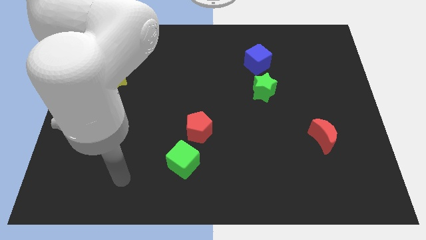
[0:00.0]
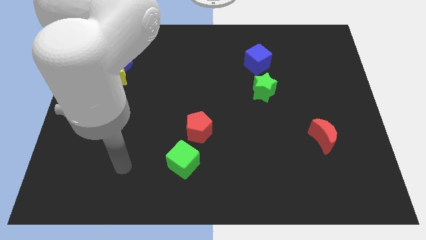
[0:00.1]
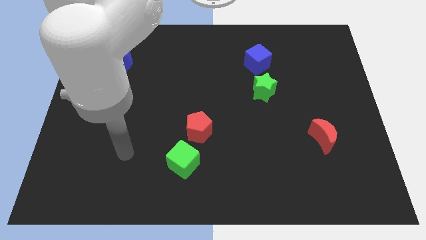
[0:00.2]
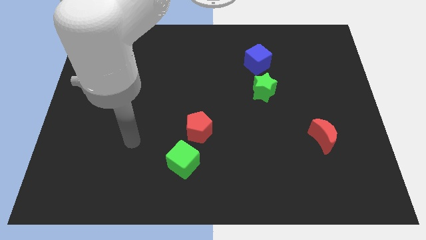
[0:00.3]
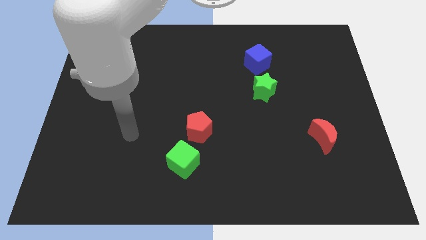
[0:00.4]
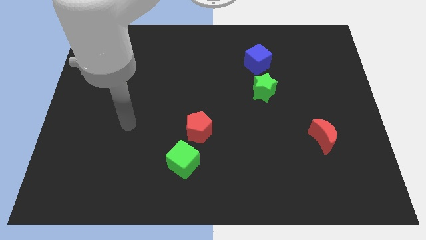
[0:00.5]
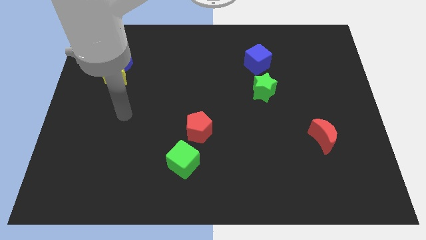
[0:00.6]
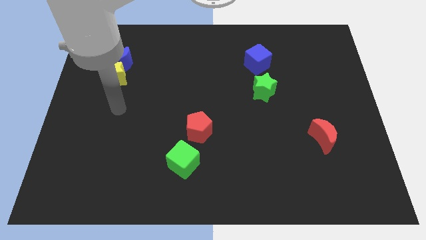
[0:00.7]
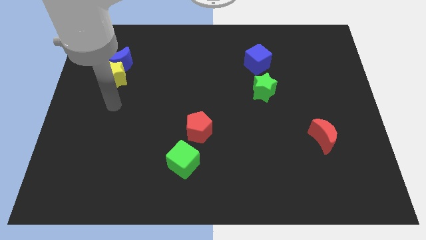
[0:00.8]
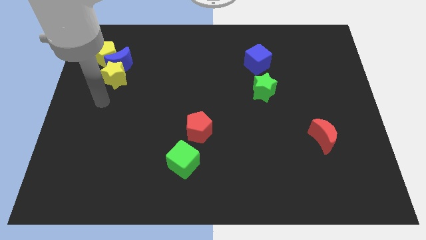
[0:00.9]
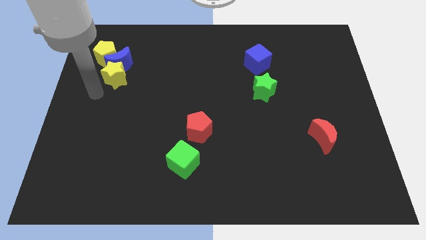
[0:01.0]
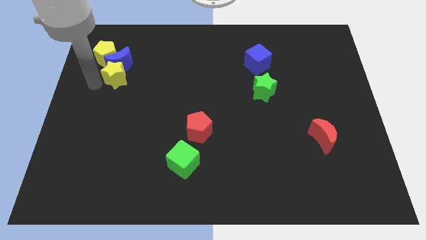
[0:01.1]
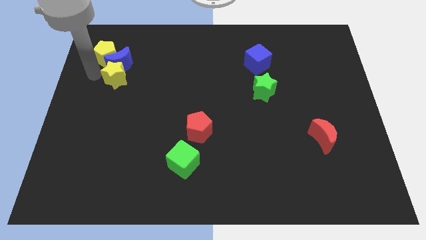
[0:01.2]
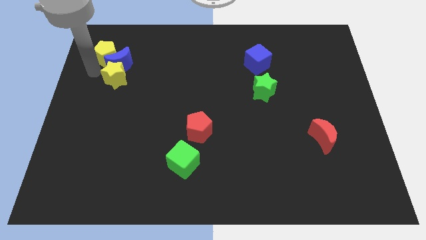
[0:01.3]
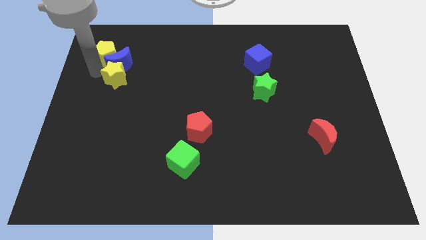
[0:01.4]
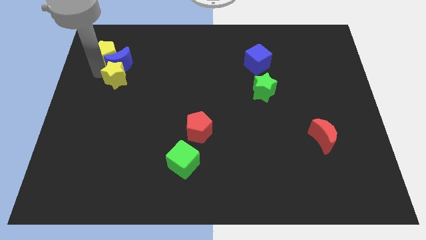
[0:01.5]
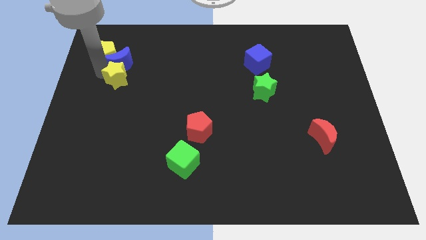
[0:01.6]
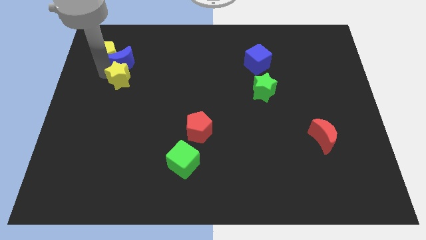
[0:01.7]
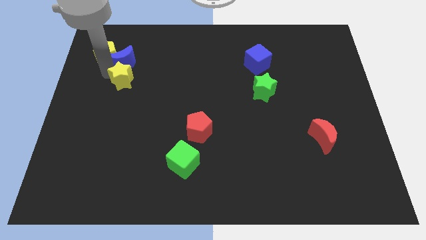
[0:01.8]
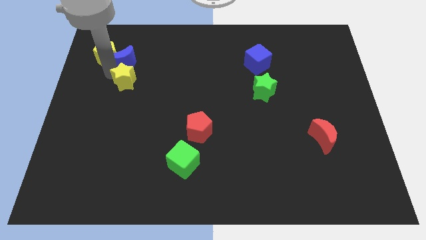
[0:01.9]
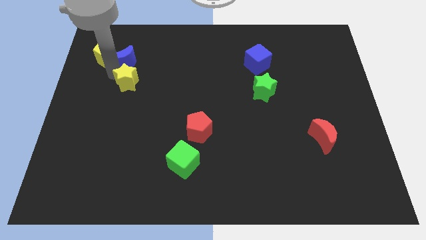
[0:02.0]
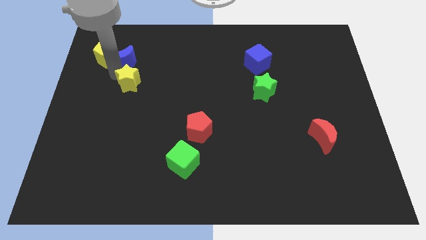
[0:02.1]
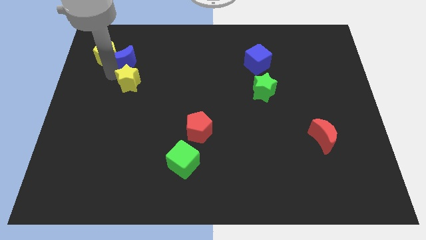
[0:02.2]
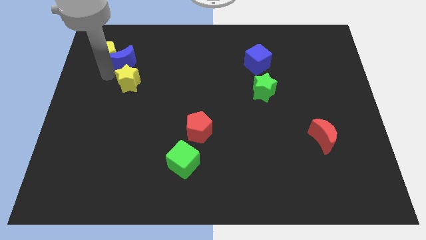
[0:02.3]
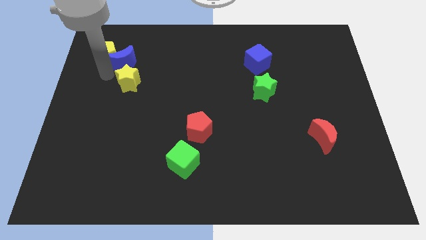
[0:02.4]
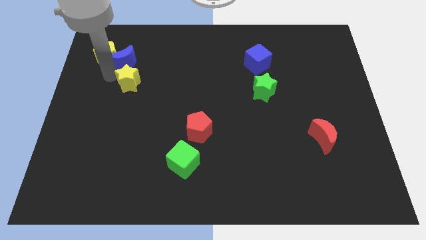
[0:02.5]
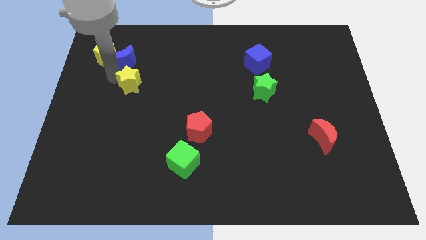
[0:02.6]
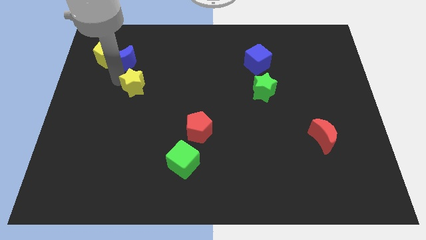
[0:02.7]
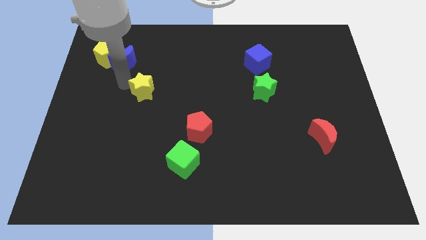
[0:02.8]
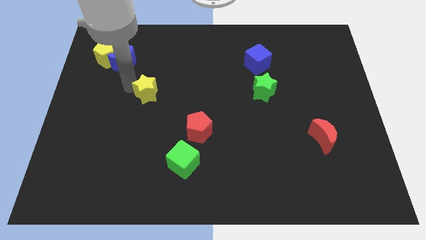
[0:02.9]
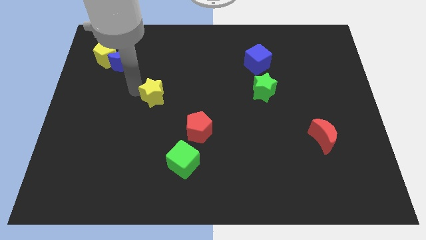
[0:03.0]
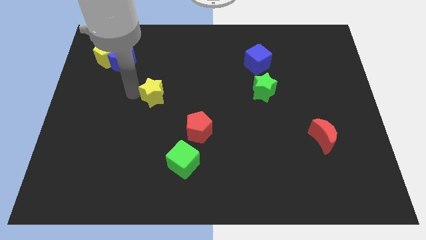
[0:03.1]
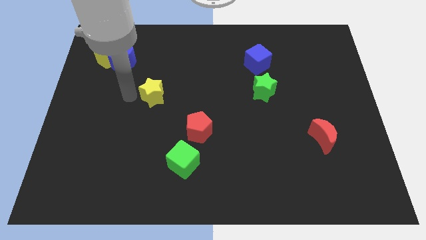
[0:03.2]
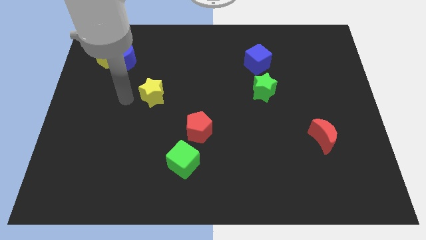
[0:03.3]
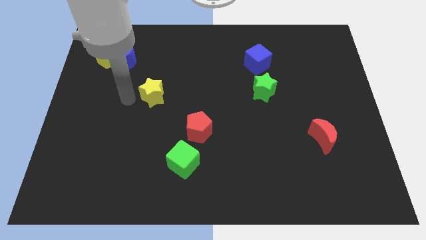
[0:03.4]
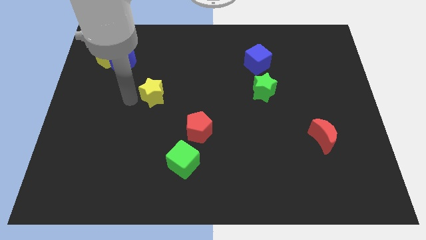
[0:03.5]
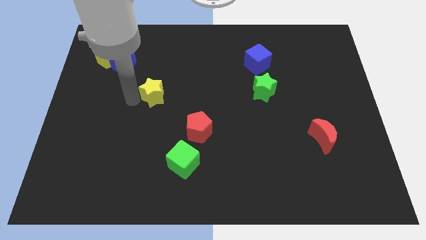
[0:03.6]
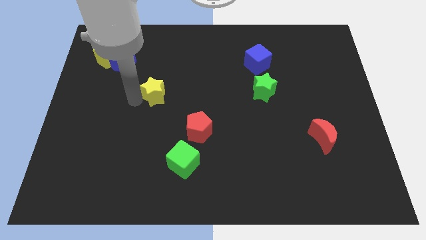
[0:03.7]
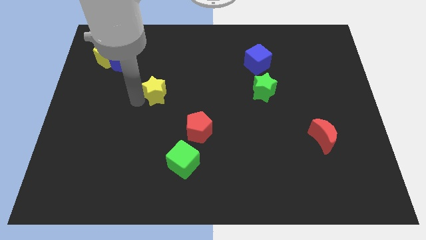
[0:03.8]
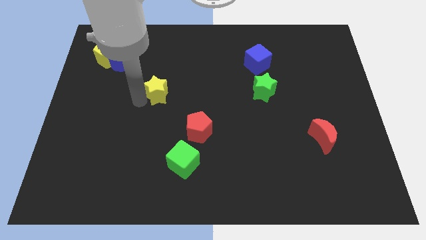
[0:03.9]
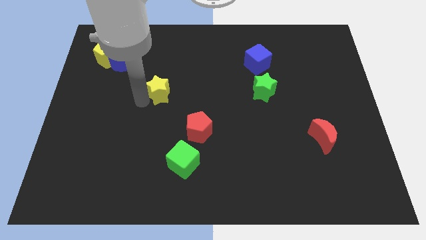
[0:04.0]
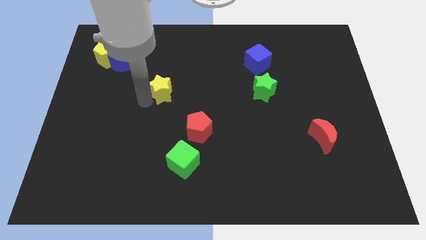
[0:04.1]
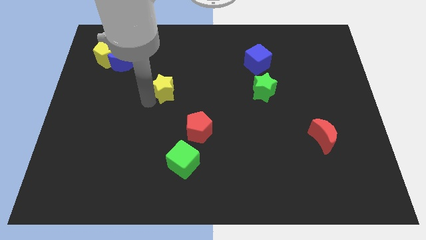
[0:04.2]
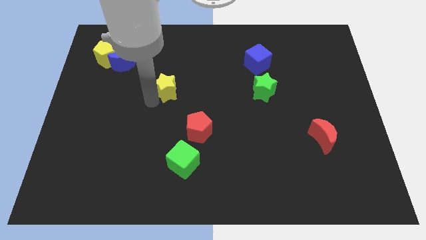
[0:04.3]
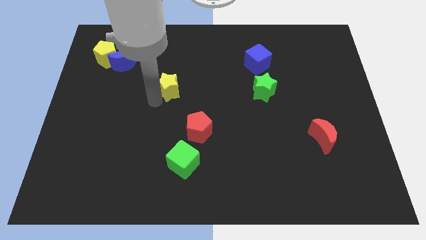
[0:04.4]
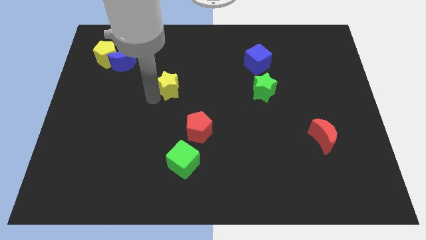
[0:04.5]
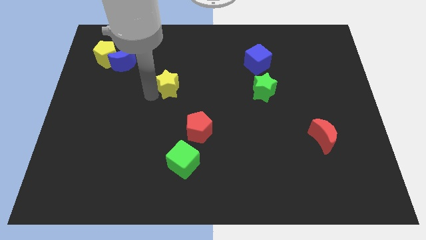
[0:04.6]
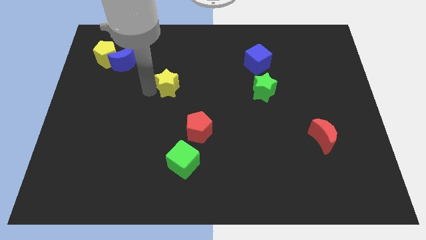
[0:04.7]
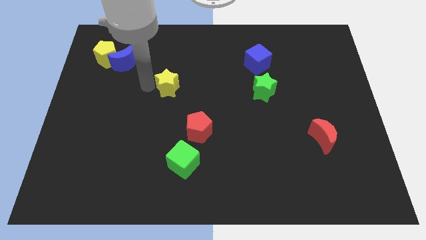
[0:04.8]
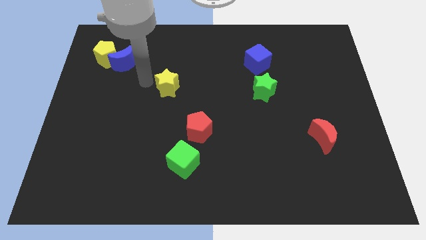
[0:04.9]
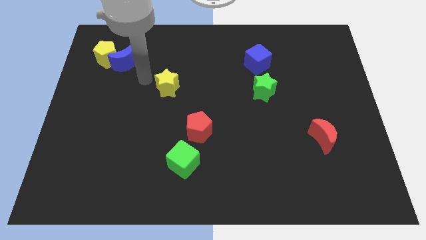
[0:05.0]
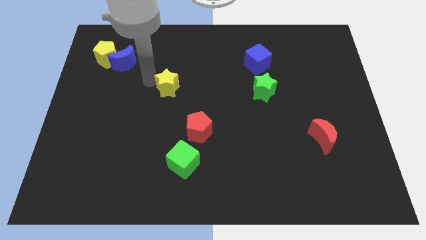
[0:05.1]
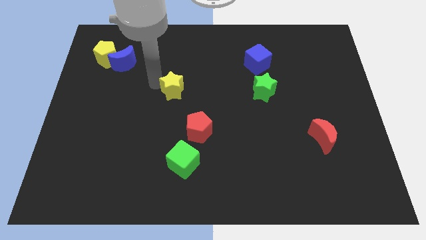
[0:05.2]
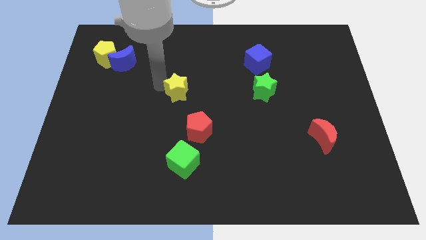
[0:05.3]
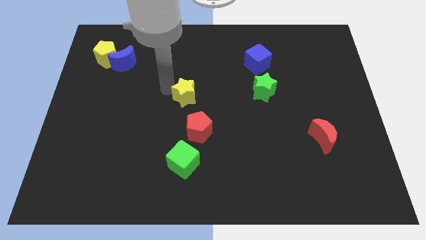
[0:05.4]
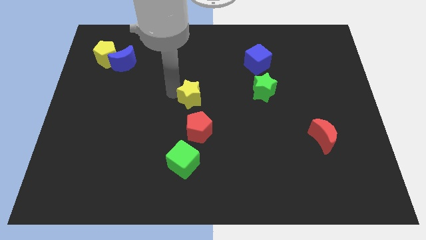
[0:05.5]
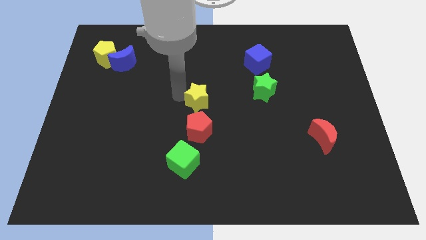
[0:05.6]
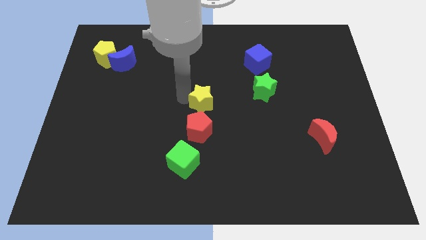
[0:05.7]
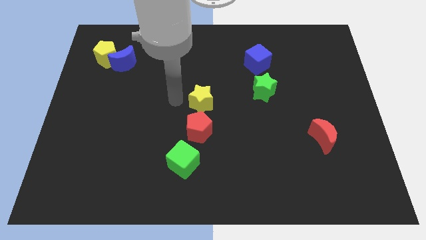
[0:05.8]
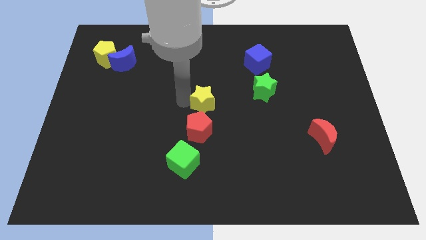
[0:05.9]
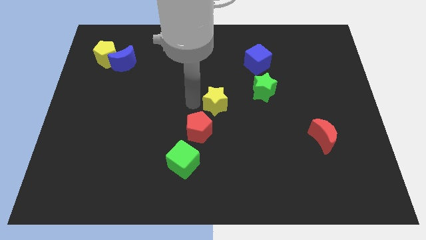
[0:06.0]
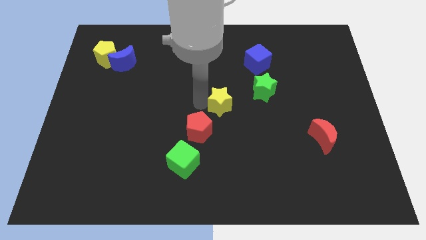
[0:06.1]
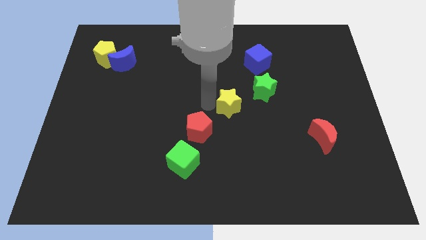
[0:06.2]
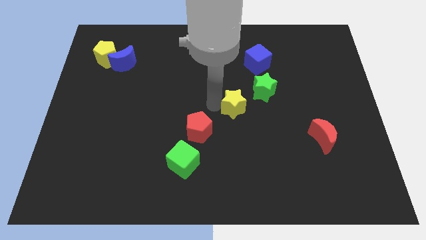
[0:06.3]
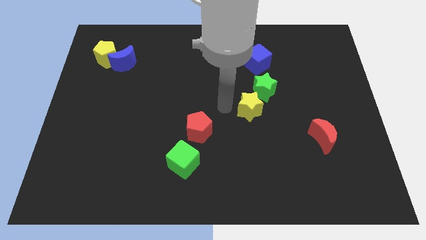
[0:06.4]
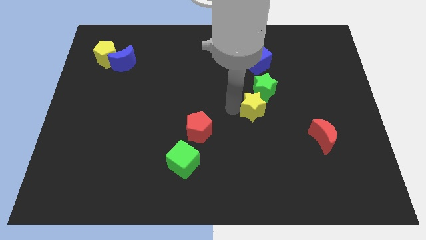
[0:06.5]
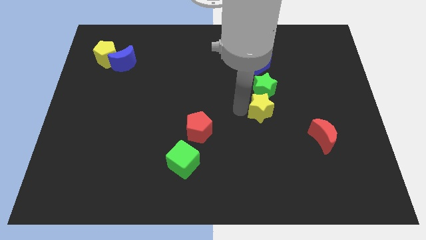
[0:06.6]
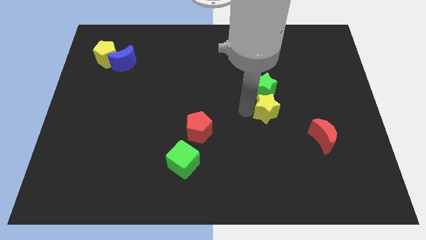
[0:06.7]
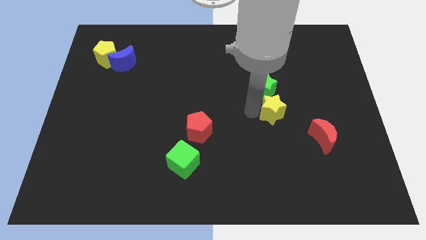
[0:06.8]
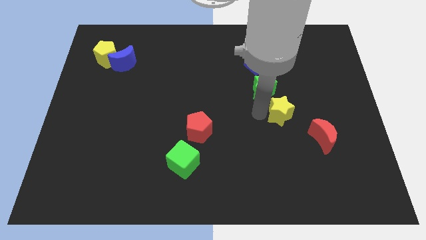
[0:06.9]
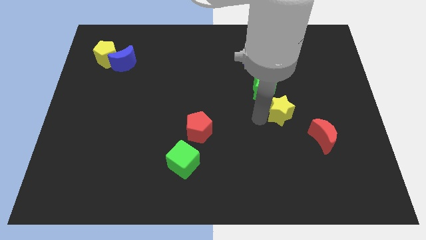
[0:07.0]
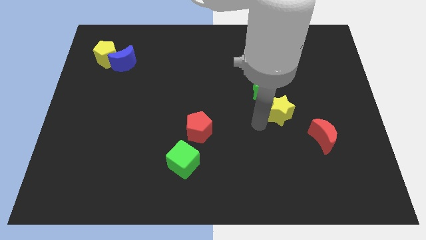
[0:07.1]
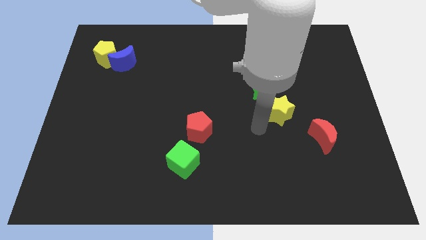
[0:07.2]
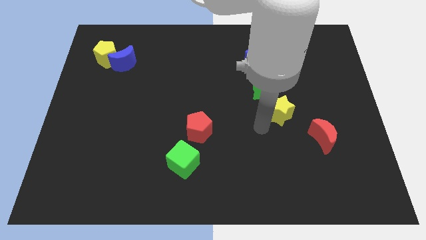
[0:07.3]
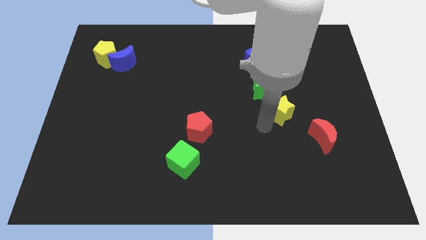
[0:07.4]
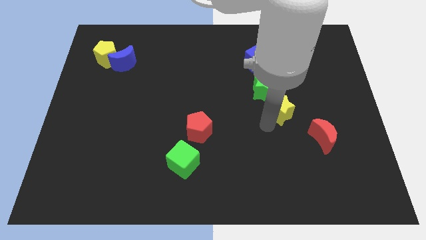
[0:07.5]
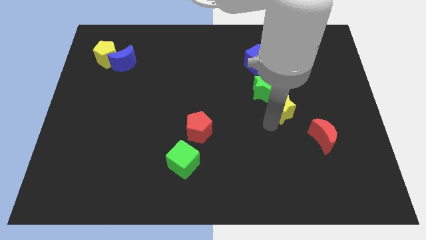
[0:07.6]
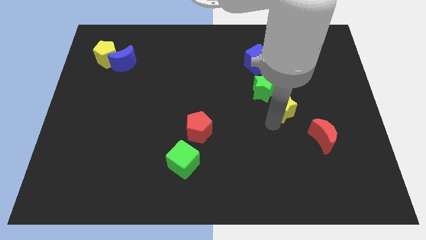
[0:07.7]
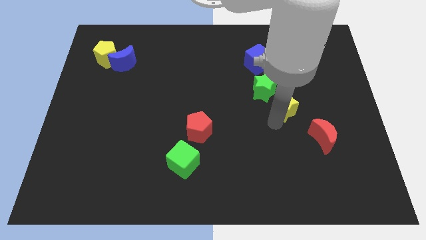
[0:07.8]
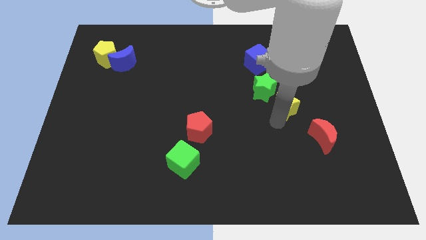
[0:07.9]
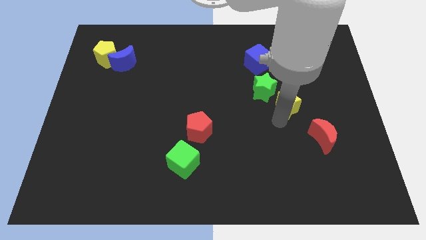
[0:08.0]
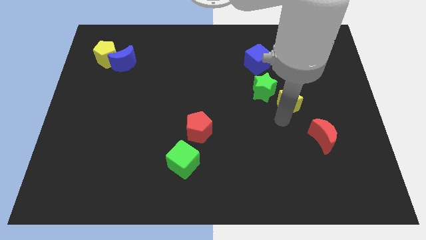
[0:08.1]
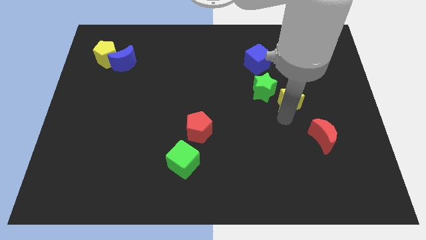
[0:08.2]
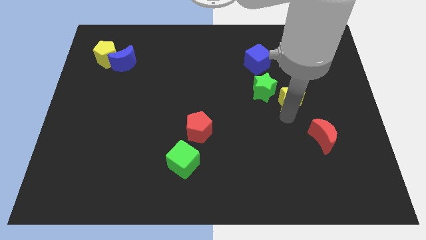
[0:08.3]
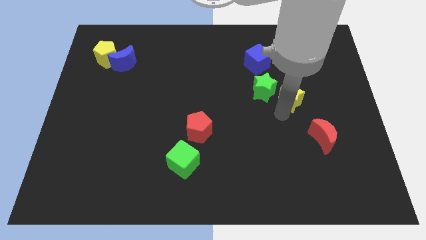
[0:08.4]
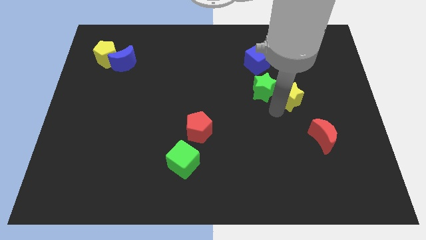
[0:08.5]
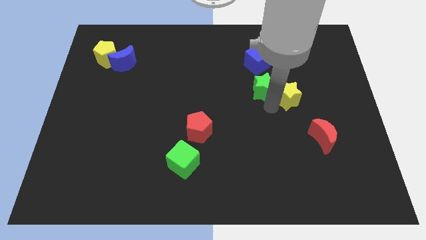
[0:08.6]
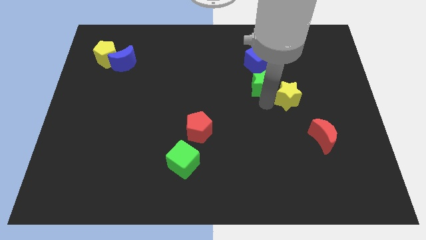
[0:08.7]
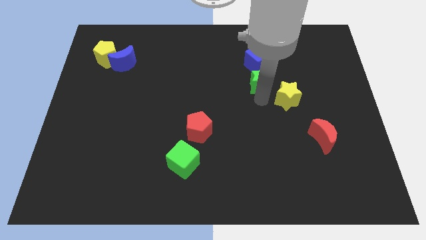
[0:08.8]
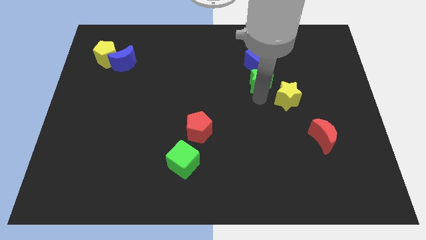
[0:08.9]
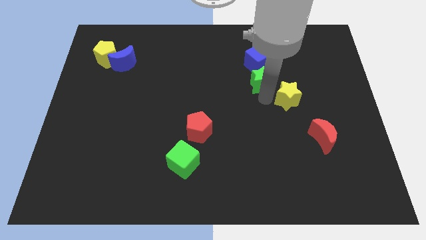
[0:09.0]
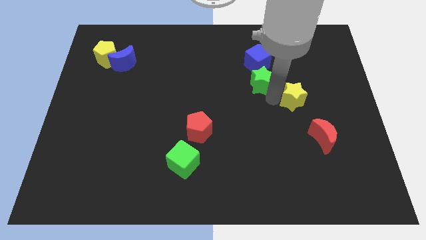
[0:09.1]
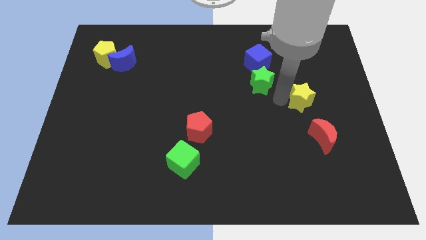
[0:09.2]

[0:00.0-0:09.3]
push the yellow star to the top of the red moon
